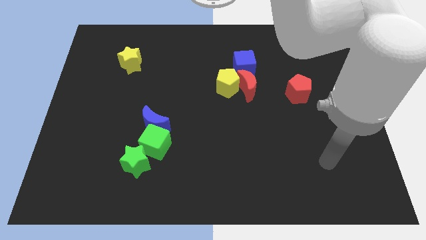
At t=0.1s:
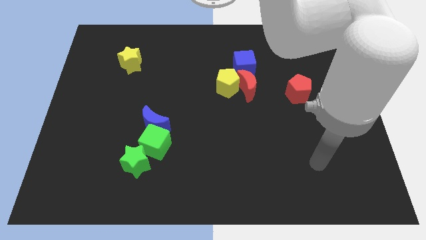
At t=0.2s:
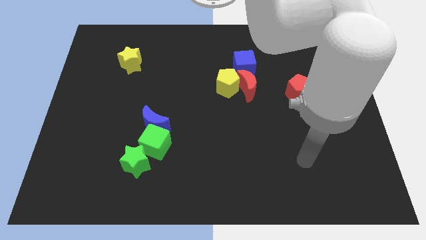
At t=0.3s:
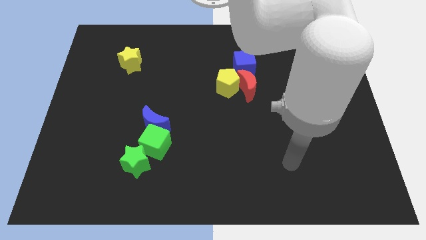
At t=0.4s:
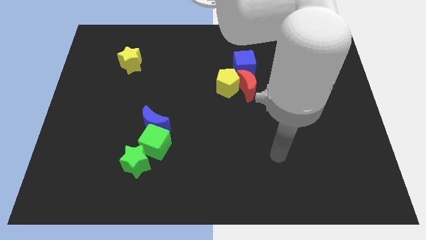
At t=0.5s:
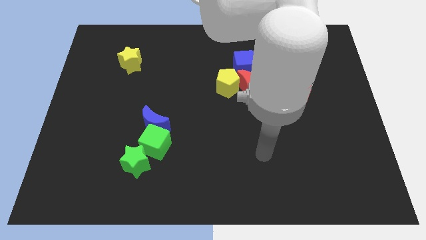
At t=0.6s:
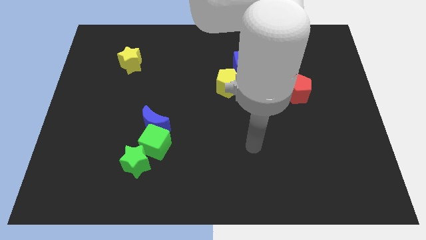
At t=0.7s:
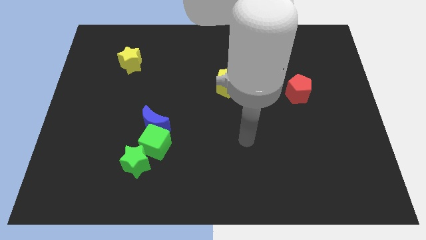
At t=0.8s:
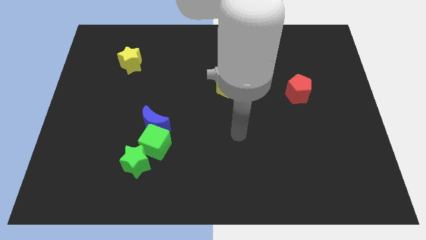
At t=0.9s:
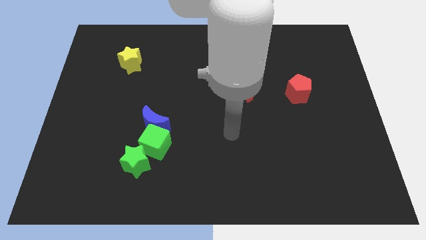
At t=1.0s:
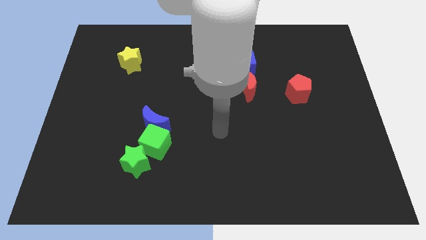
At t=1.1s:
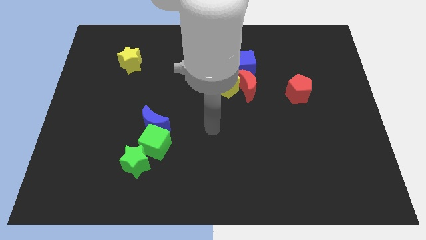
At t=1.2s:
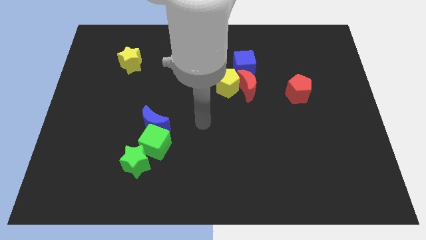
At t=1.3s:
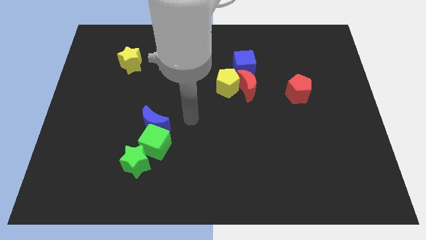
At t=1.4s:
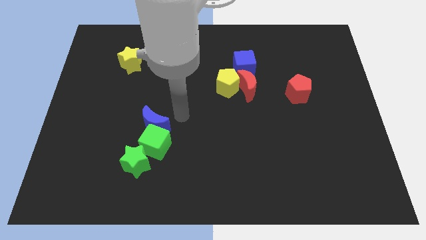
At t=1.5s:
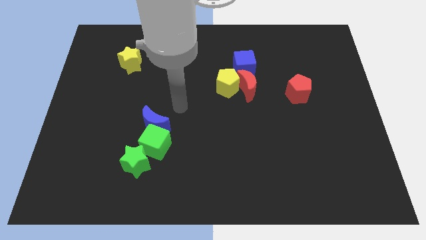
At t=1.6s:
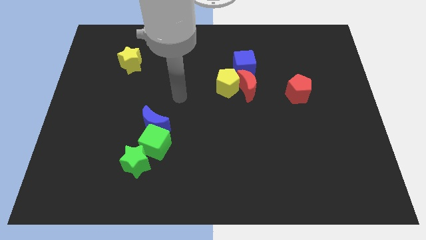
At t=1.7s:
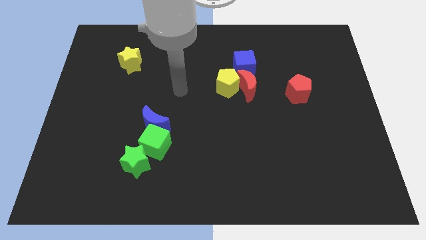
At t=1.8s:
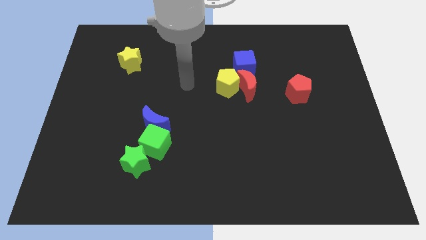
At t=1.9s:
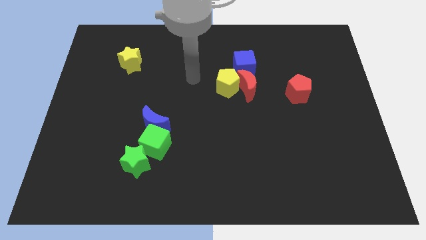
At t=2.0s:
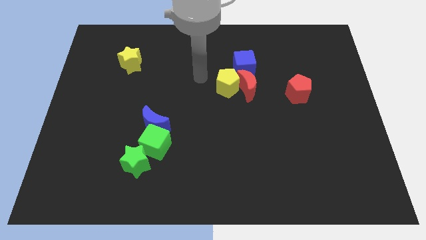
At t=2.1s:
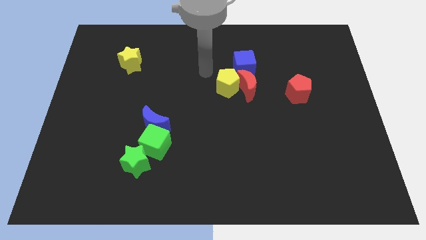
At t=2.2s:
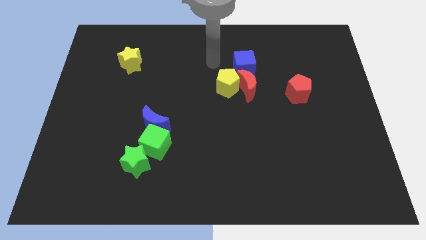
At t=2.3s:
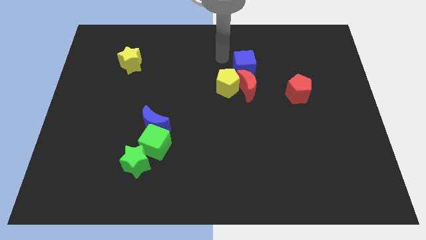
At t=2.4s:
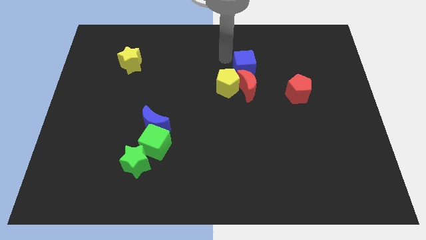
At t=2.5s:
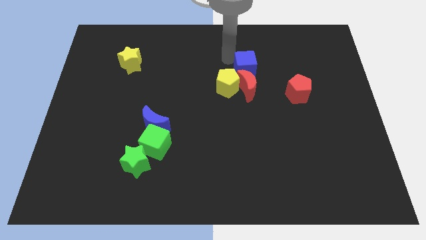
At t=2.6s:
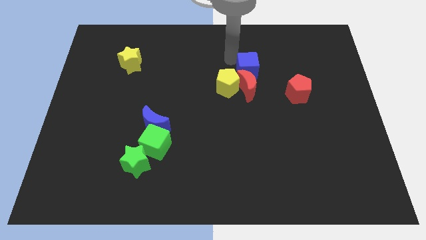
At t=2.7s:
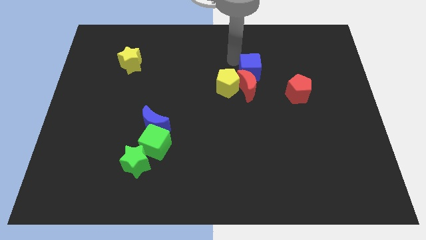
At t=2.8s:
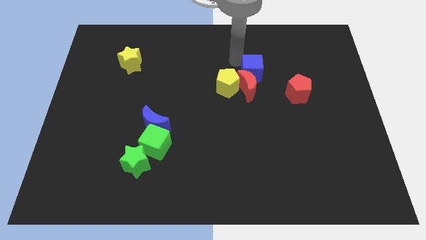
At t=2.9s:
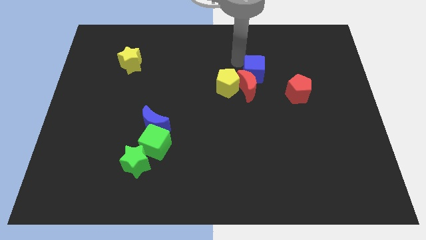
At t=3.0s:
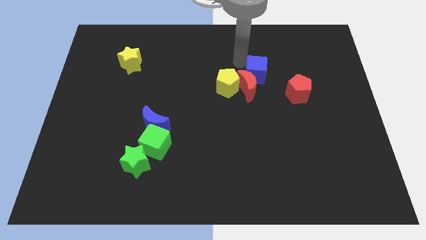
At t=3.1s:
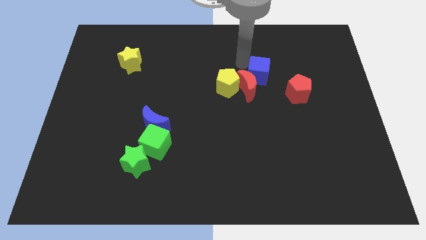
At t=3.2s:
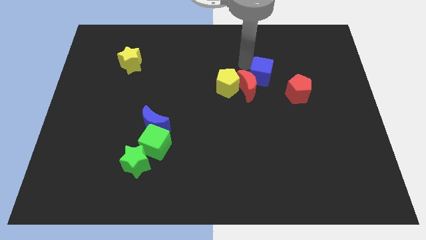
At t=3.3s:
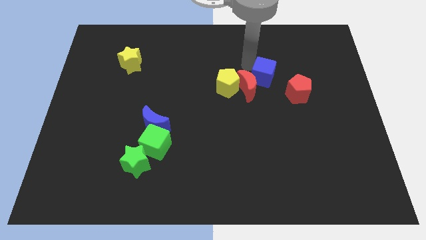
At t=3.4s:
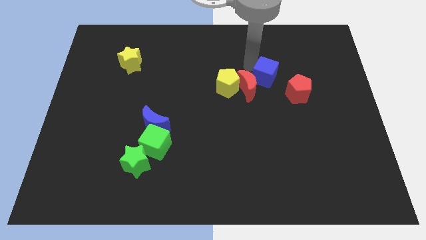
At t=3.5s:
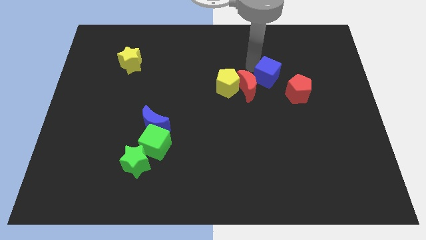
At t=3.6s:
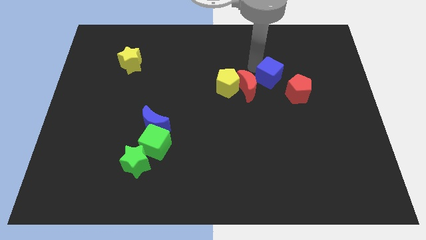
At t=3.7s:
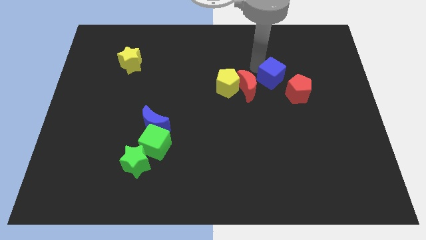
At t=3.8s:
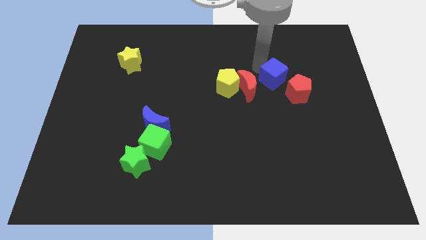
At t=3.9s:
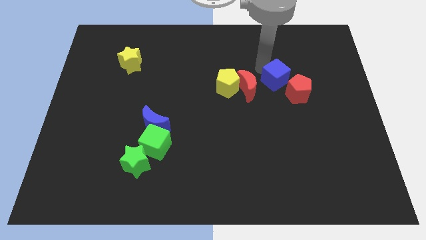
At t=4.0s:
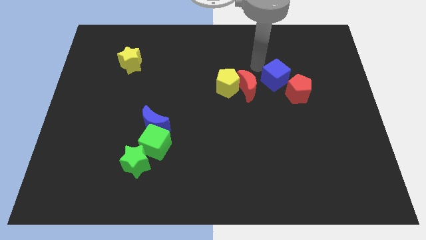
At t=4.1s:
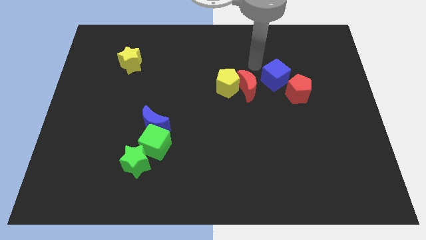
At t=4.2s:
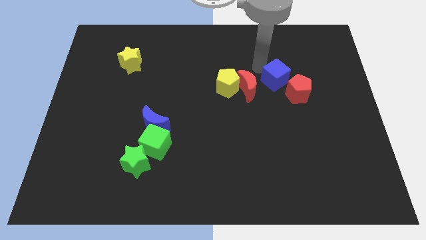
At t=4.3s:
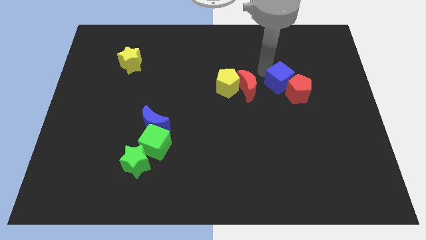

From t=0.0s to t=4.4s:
push the blue cube next to the red pentagon

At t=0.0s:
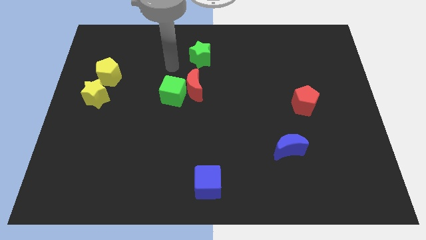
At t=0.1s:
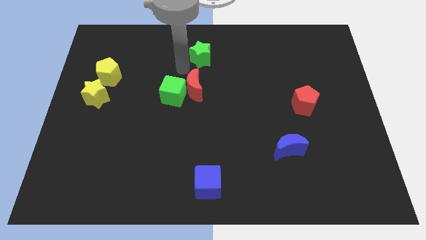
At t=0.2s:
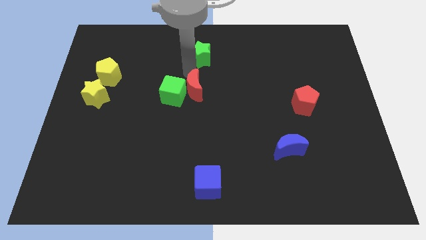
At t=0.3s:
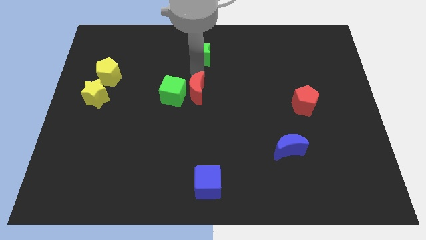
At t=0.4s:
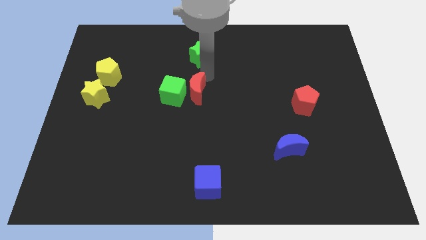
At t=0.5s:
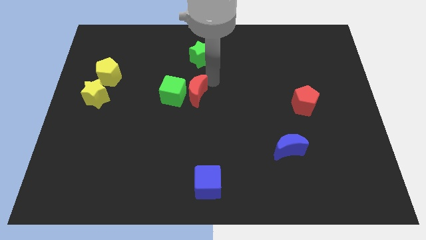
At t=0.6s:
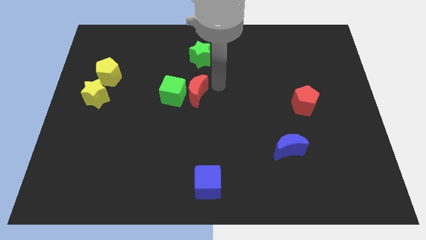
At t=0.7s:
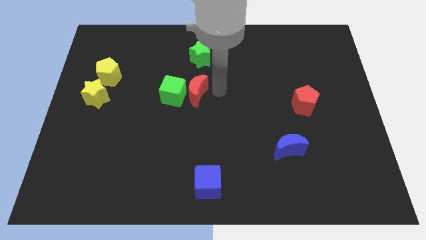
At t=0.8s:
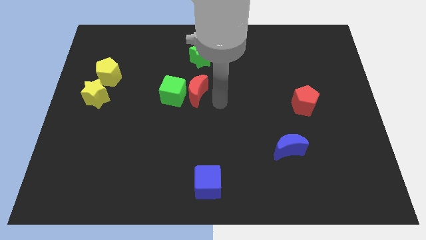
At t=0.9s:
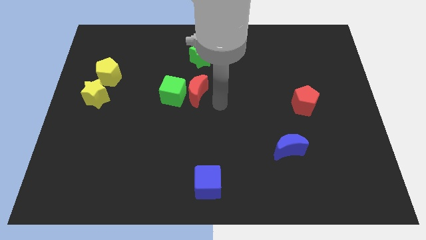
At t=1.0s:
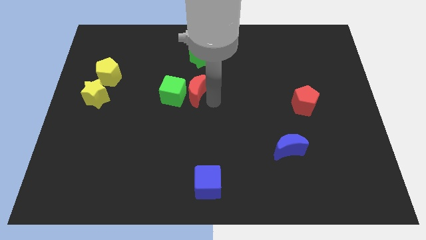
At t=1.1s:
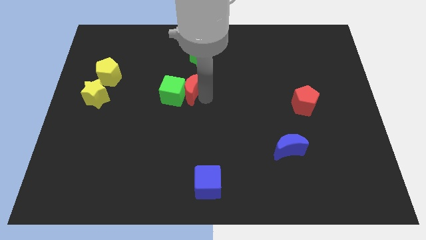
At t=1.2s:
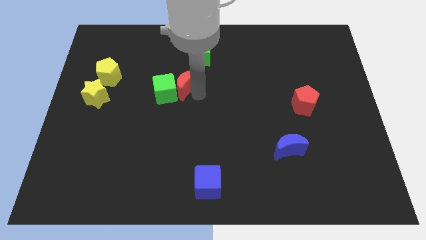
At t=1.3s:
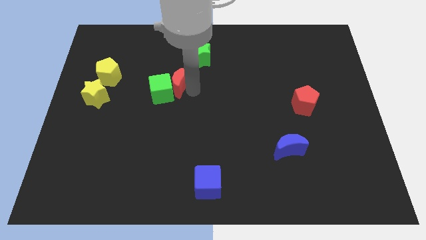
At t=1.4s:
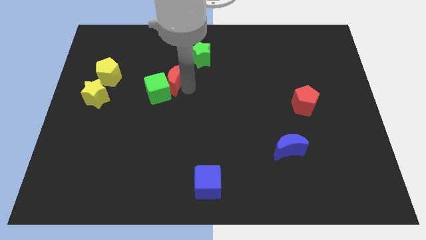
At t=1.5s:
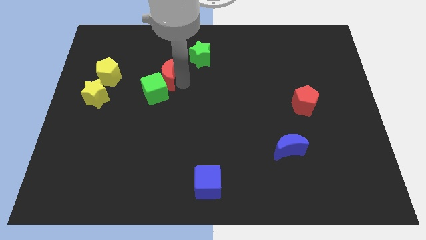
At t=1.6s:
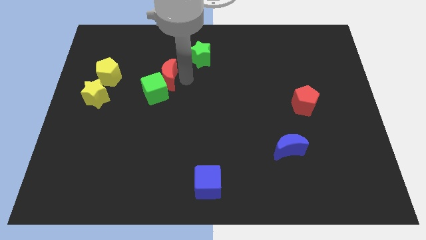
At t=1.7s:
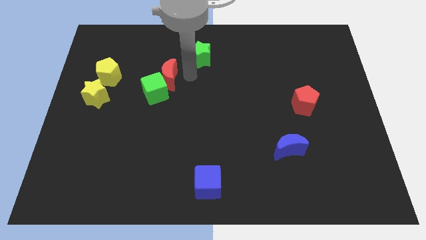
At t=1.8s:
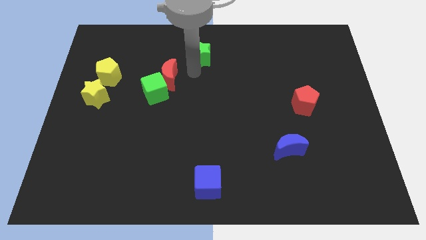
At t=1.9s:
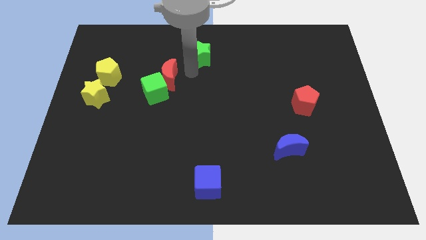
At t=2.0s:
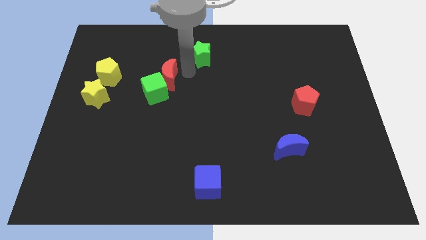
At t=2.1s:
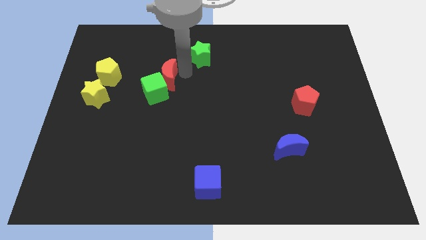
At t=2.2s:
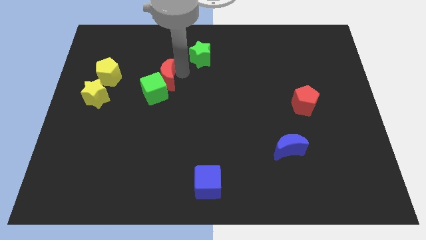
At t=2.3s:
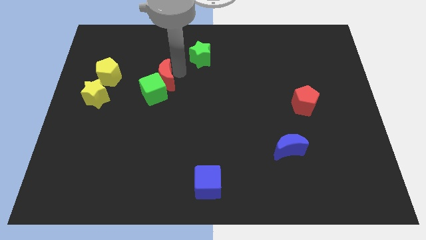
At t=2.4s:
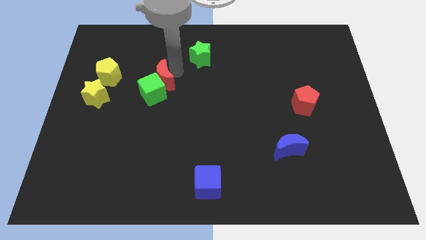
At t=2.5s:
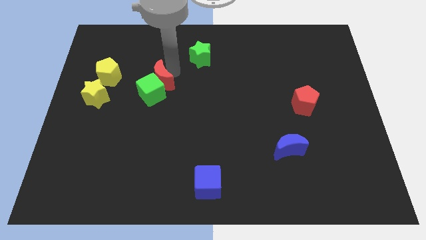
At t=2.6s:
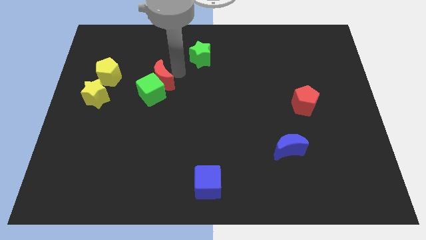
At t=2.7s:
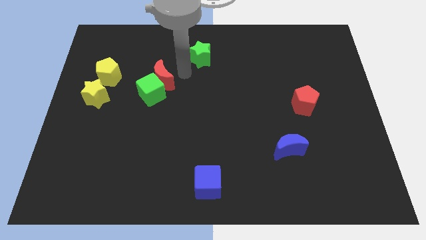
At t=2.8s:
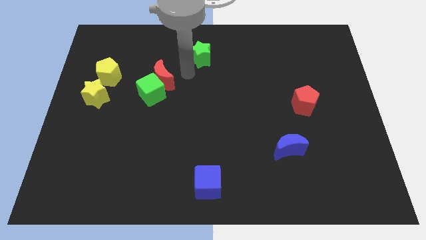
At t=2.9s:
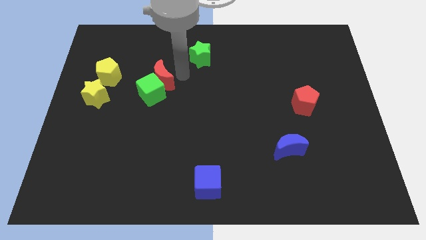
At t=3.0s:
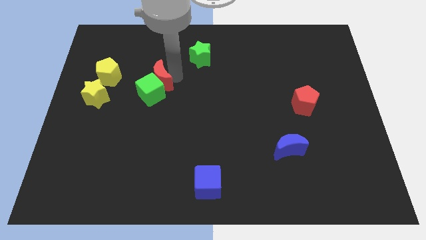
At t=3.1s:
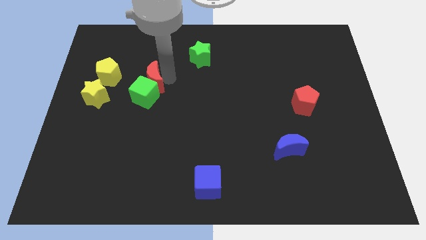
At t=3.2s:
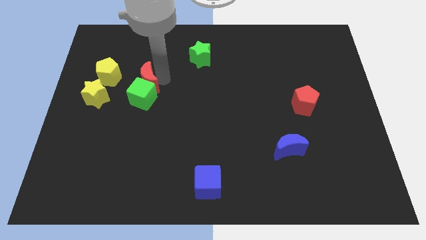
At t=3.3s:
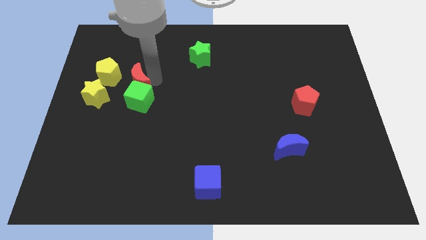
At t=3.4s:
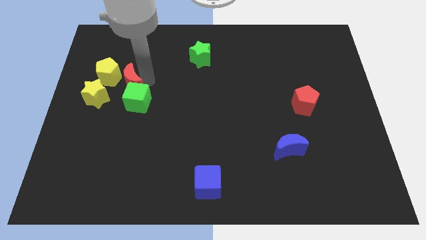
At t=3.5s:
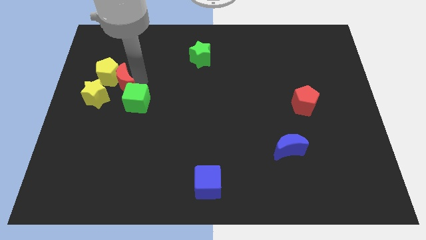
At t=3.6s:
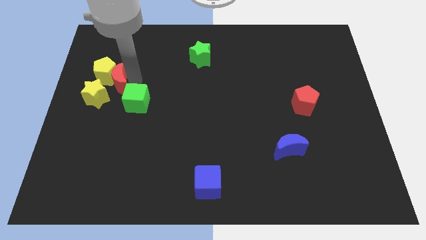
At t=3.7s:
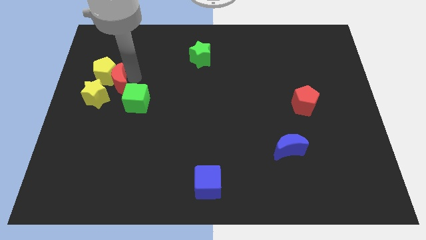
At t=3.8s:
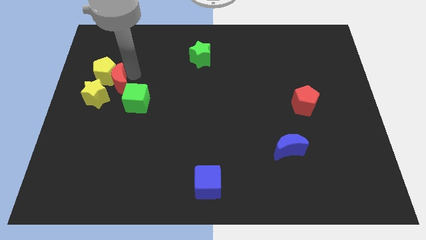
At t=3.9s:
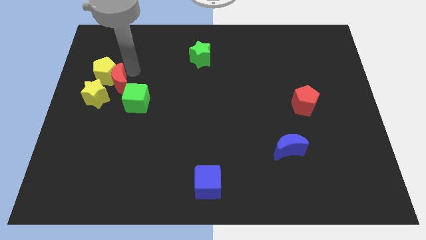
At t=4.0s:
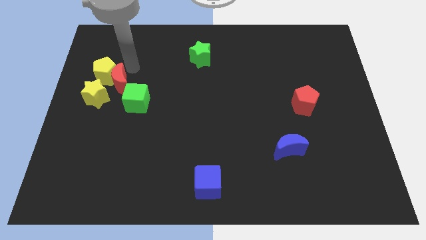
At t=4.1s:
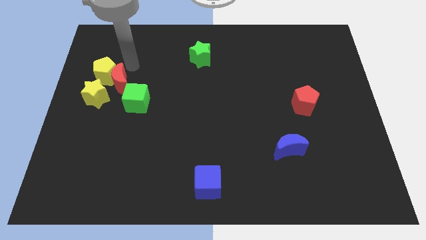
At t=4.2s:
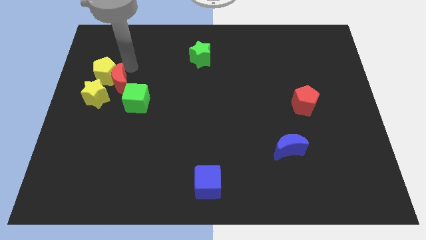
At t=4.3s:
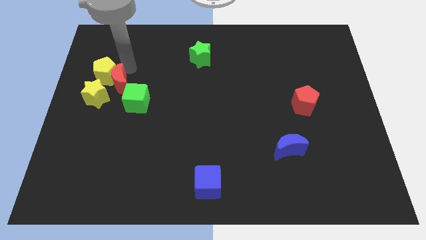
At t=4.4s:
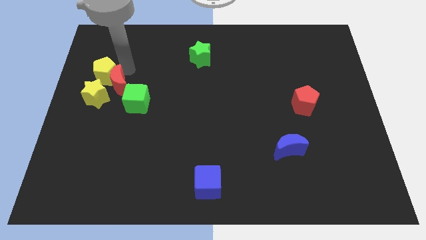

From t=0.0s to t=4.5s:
slide the red moon to the yellow star
